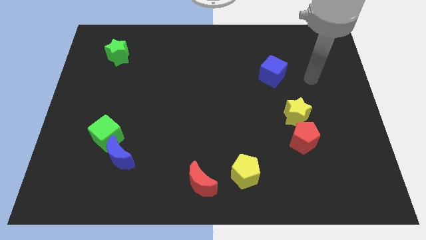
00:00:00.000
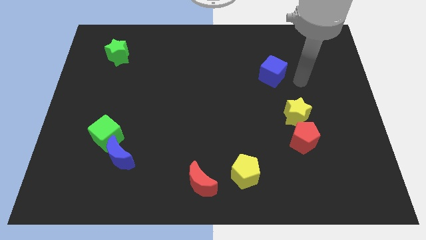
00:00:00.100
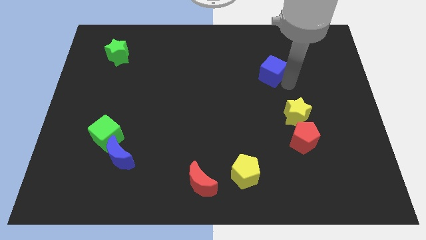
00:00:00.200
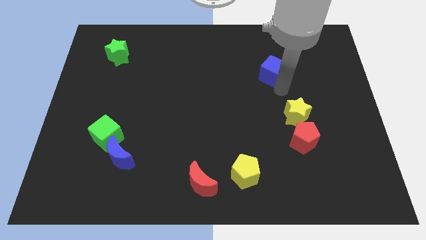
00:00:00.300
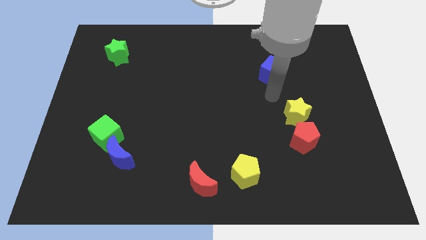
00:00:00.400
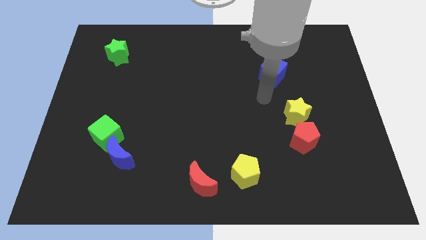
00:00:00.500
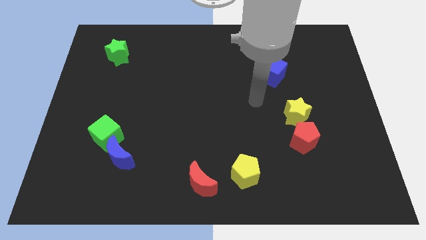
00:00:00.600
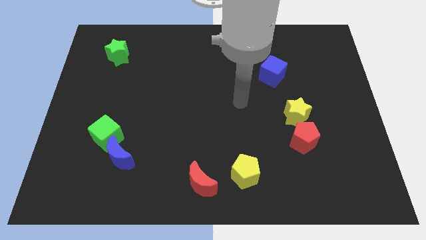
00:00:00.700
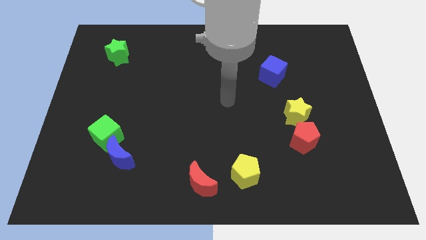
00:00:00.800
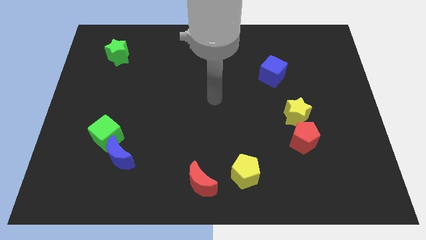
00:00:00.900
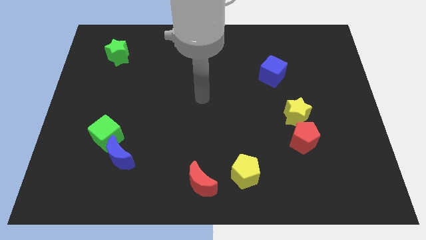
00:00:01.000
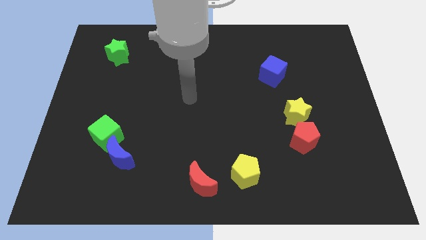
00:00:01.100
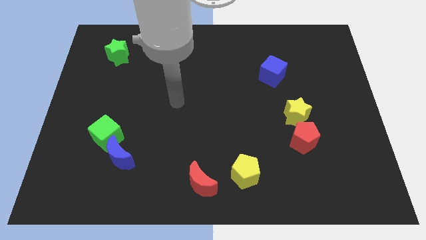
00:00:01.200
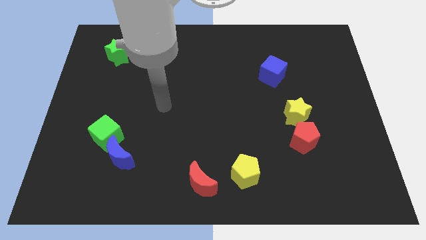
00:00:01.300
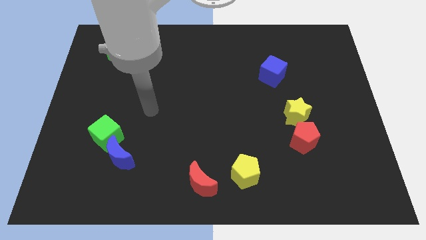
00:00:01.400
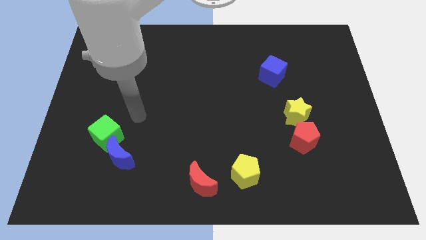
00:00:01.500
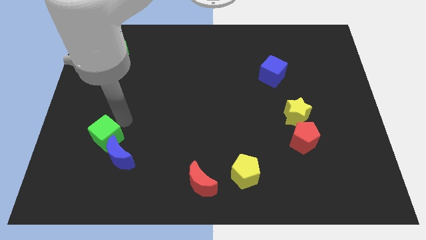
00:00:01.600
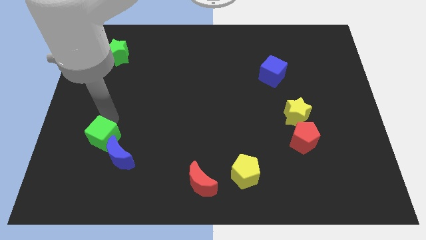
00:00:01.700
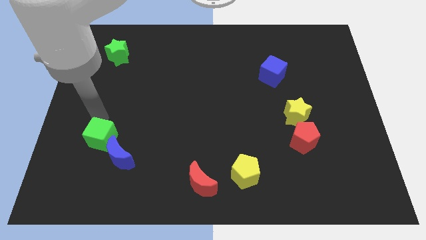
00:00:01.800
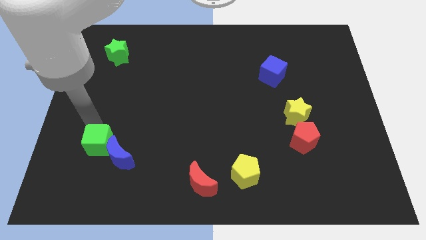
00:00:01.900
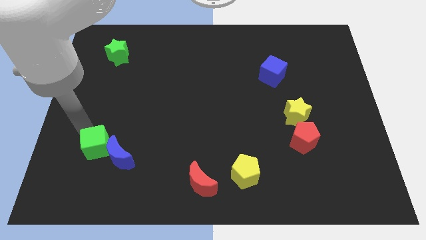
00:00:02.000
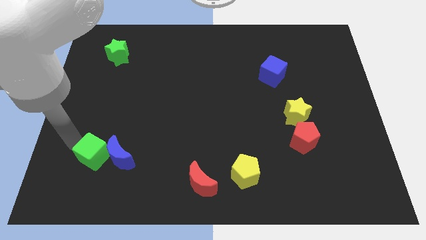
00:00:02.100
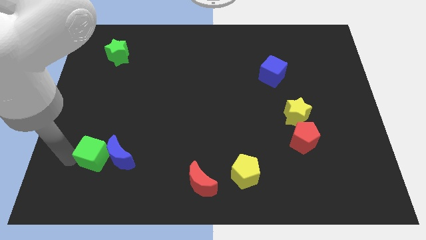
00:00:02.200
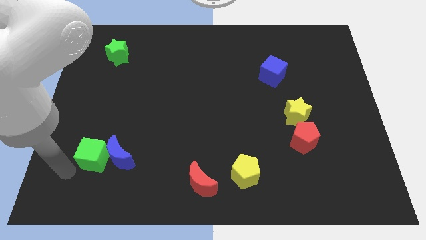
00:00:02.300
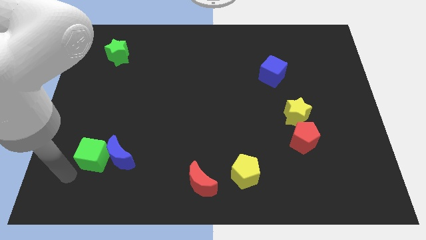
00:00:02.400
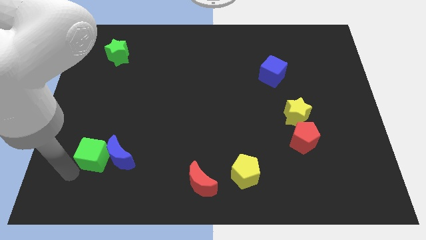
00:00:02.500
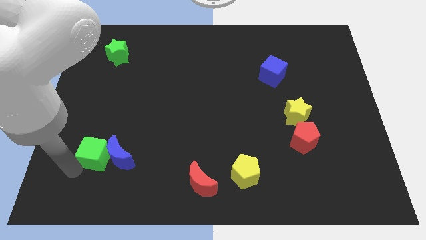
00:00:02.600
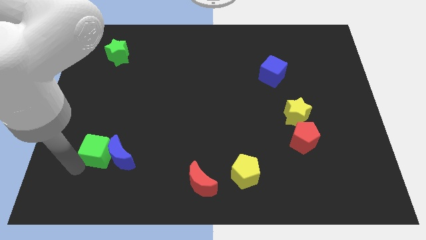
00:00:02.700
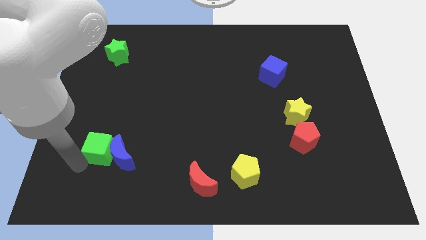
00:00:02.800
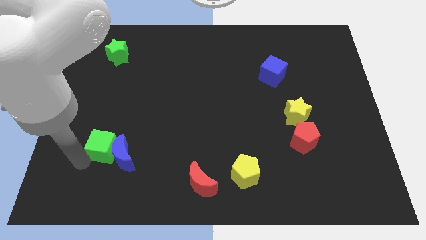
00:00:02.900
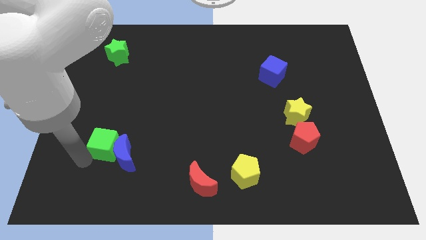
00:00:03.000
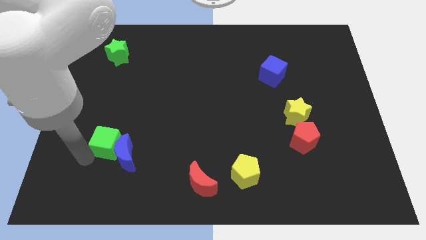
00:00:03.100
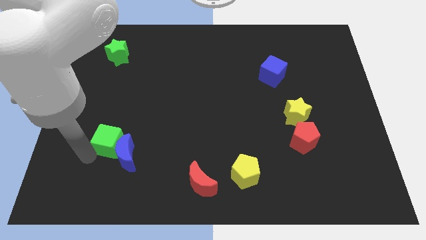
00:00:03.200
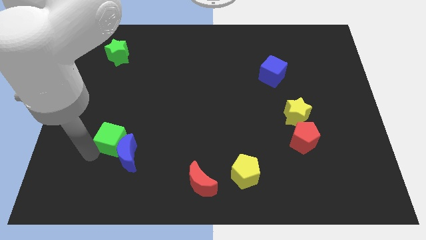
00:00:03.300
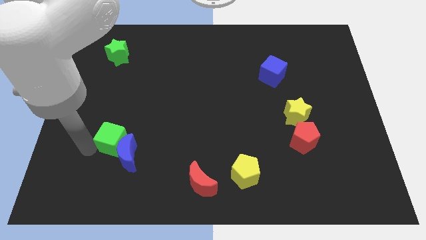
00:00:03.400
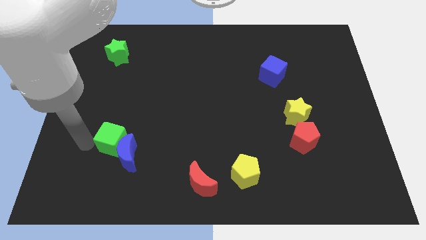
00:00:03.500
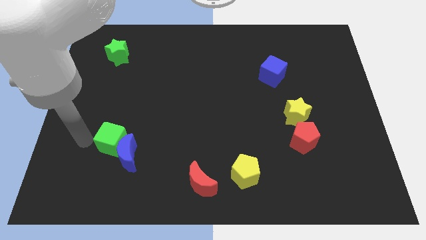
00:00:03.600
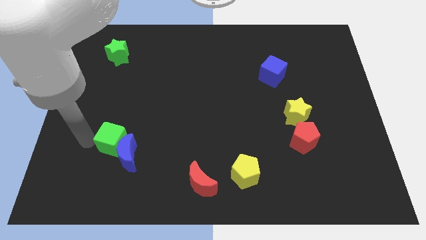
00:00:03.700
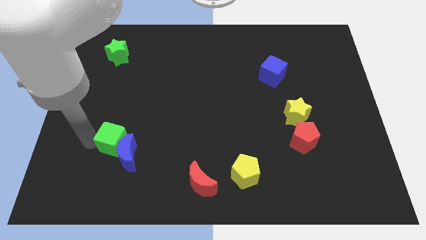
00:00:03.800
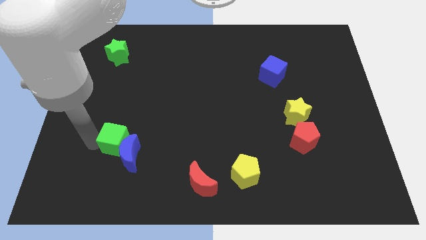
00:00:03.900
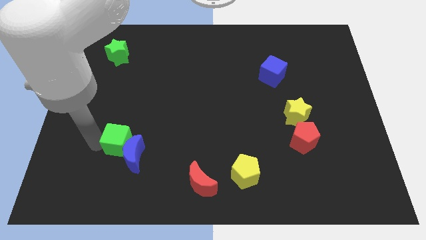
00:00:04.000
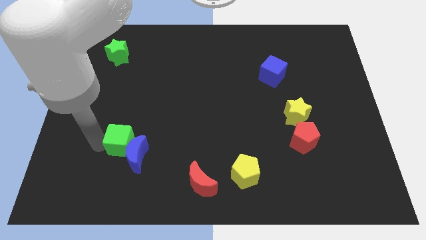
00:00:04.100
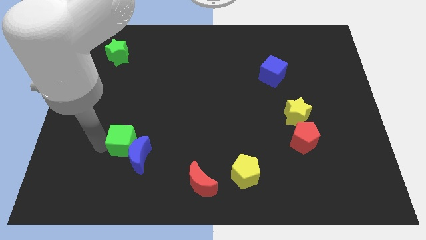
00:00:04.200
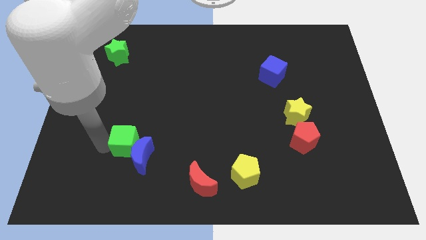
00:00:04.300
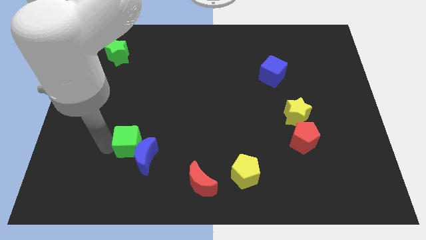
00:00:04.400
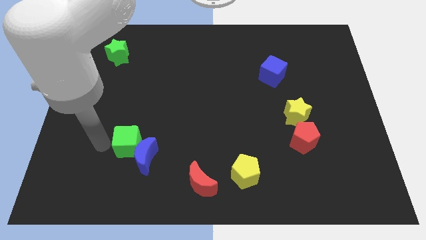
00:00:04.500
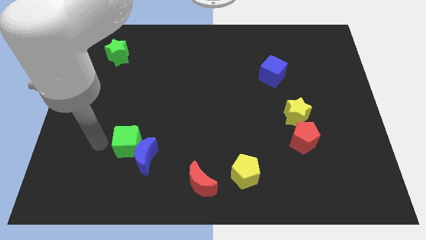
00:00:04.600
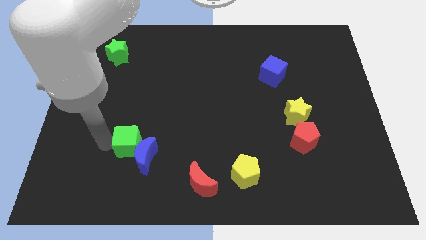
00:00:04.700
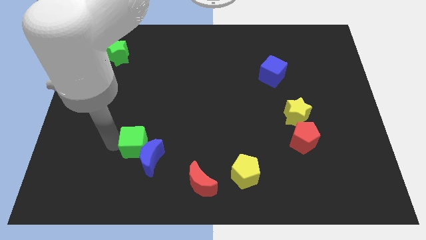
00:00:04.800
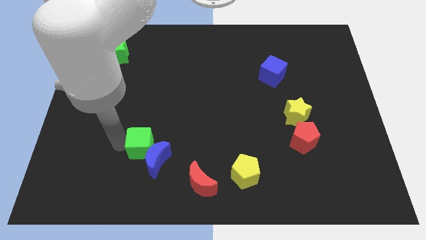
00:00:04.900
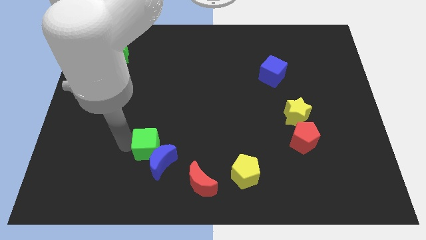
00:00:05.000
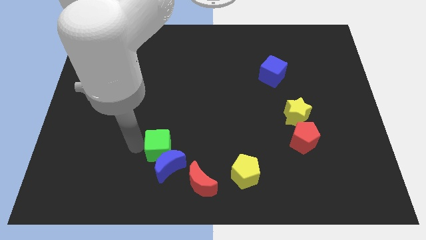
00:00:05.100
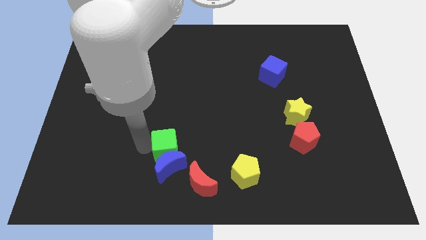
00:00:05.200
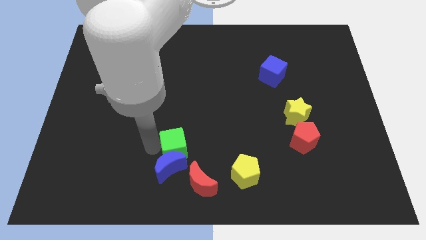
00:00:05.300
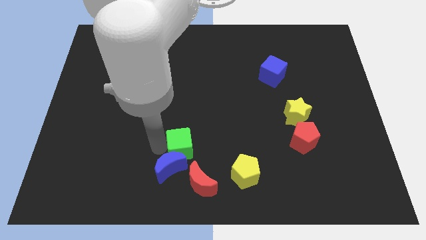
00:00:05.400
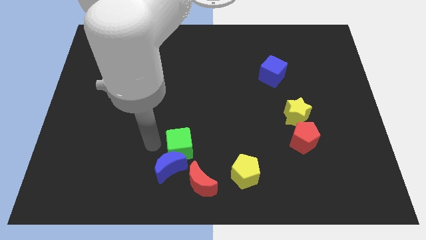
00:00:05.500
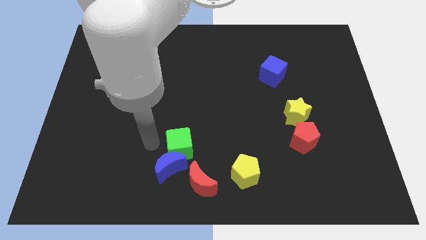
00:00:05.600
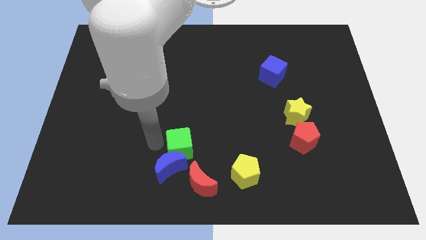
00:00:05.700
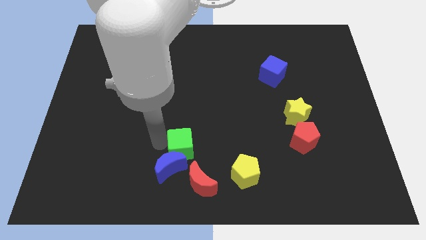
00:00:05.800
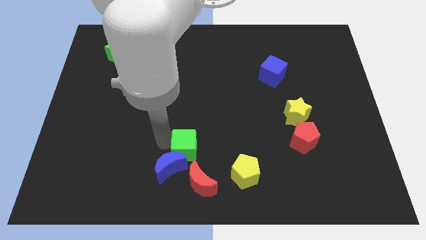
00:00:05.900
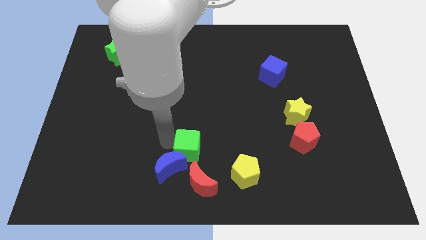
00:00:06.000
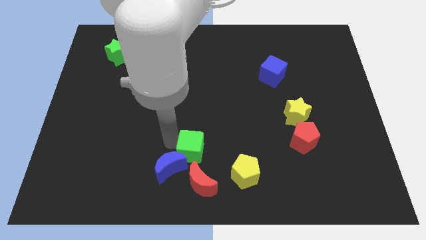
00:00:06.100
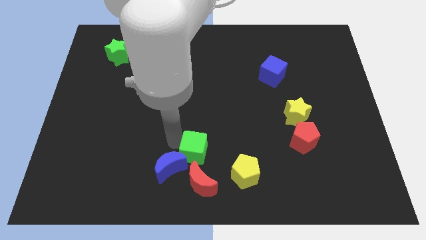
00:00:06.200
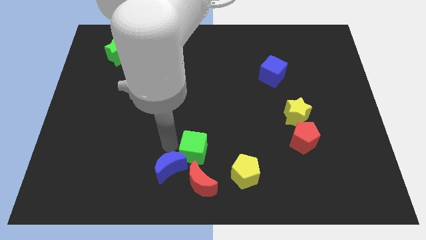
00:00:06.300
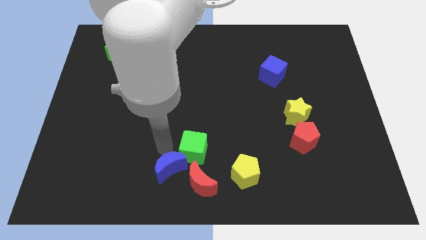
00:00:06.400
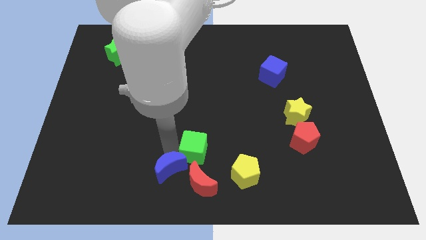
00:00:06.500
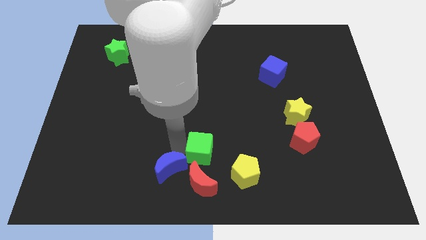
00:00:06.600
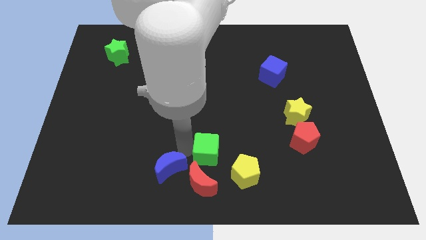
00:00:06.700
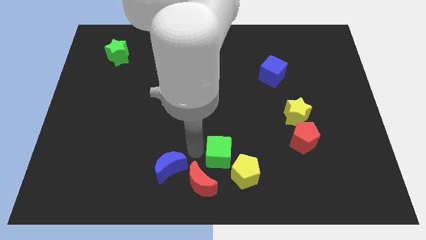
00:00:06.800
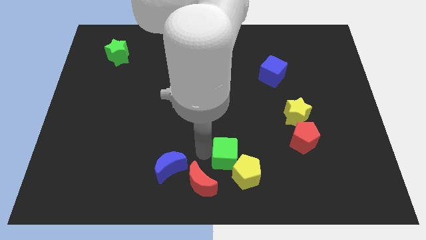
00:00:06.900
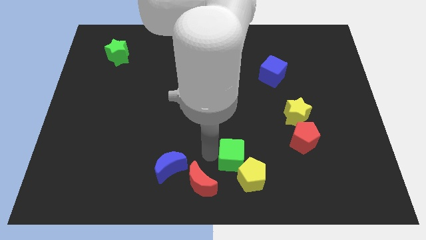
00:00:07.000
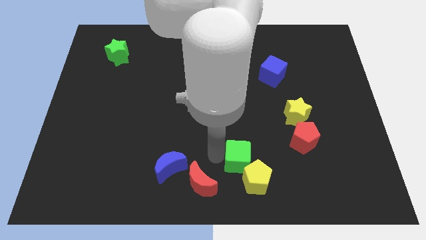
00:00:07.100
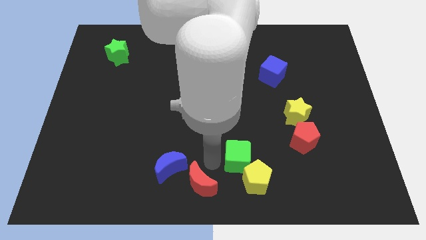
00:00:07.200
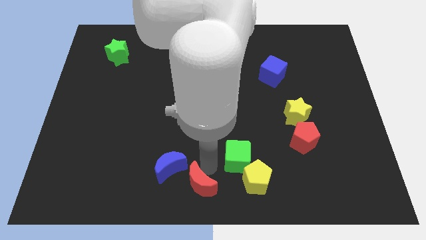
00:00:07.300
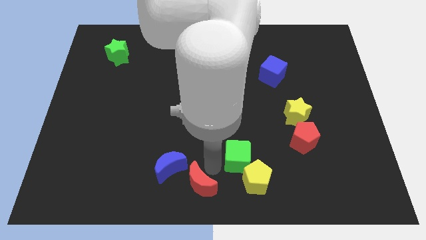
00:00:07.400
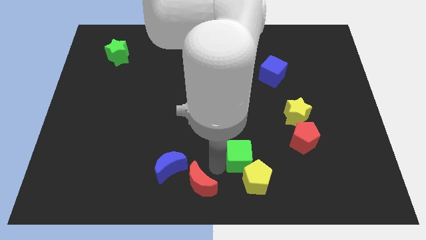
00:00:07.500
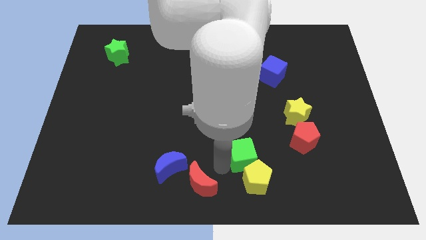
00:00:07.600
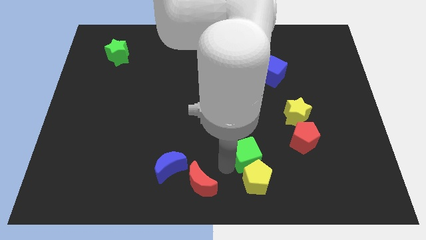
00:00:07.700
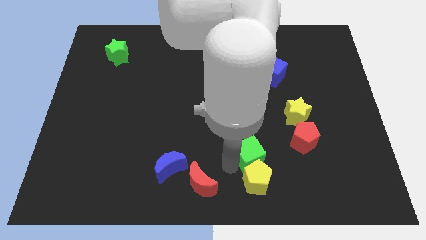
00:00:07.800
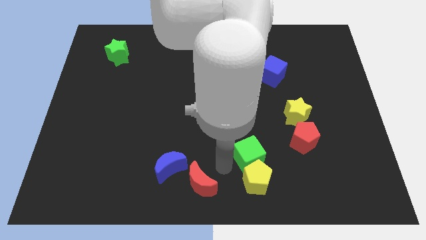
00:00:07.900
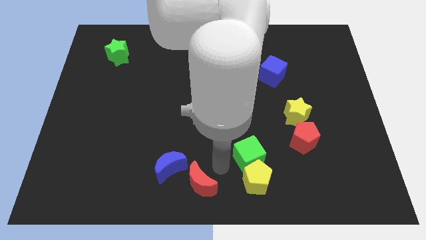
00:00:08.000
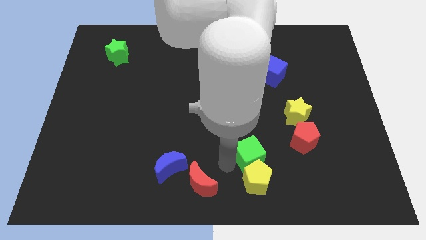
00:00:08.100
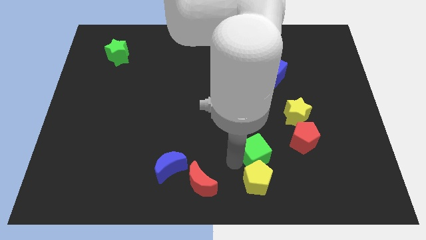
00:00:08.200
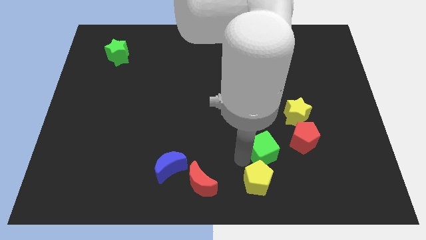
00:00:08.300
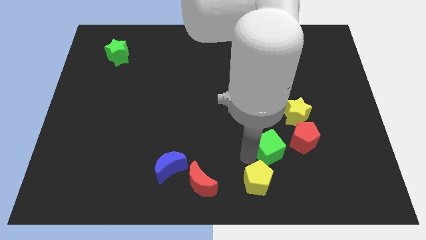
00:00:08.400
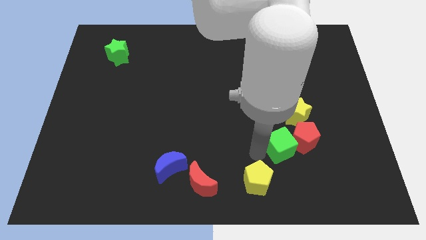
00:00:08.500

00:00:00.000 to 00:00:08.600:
slide the green cube close to the red pentagon
